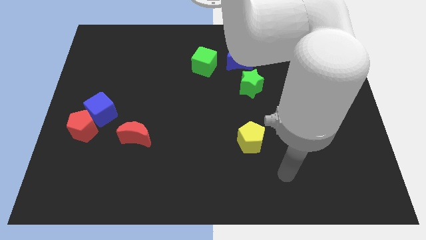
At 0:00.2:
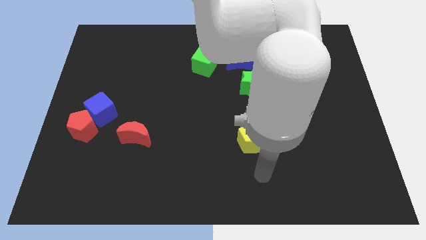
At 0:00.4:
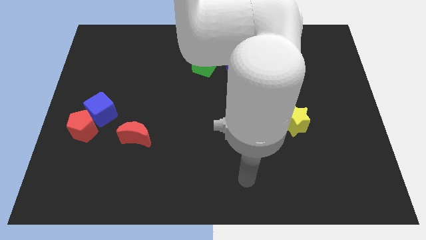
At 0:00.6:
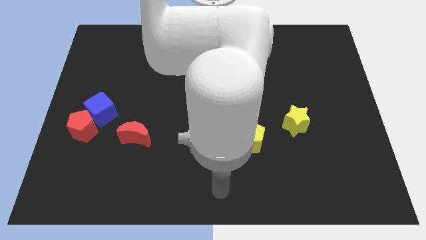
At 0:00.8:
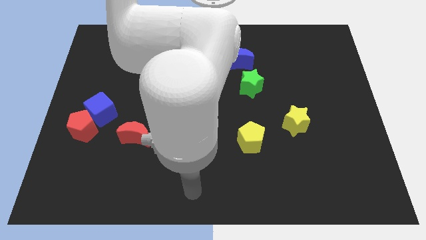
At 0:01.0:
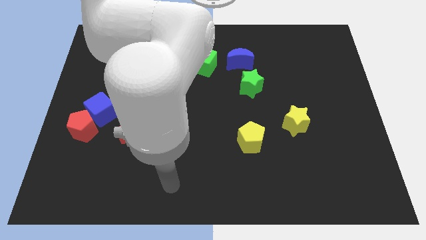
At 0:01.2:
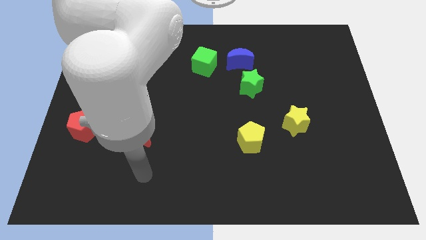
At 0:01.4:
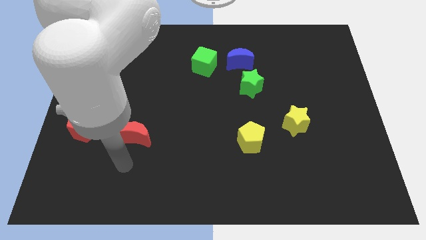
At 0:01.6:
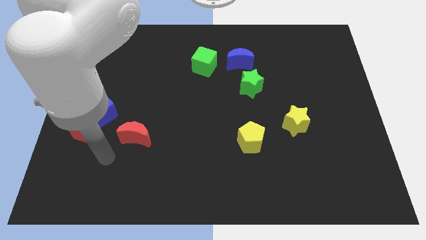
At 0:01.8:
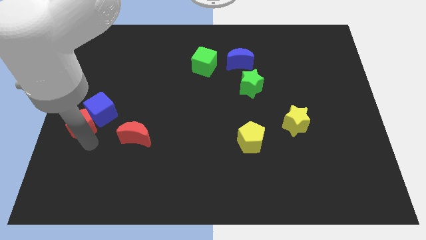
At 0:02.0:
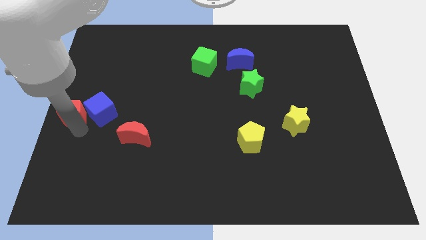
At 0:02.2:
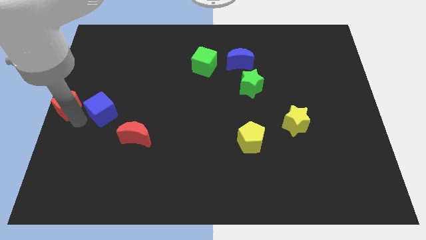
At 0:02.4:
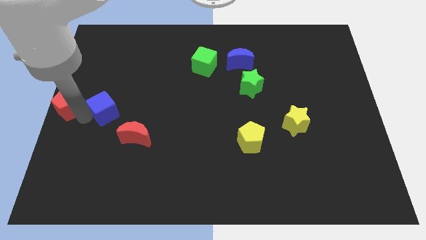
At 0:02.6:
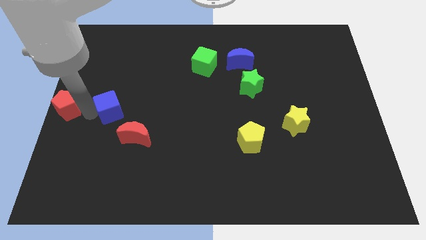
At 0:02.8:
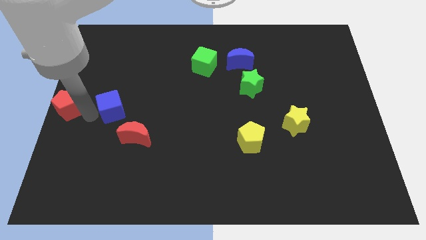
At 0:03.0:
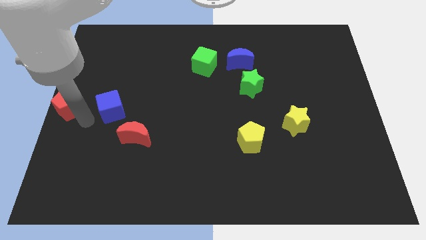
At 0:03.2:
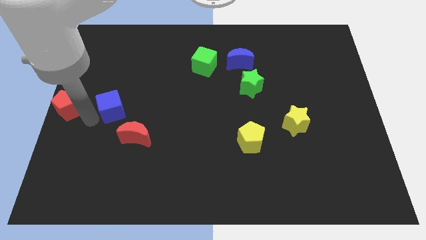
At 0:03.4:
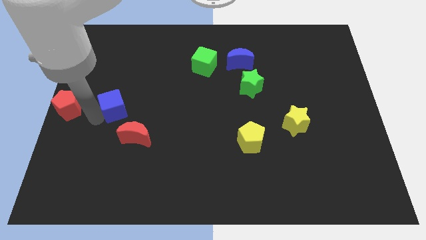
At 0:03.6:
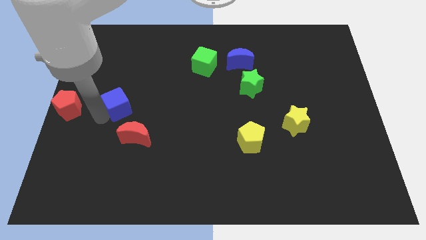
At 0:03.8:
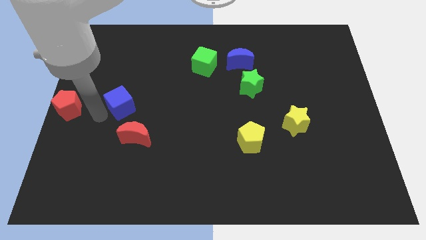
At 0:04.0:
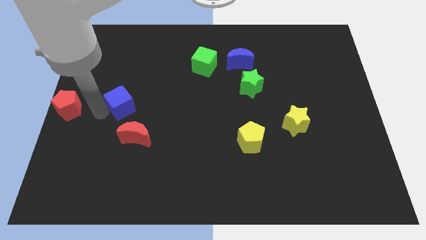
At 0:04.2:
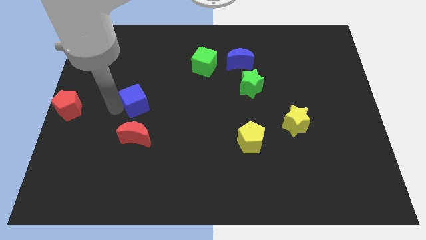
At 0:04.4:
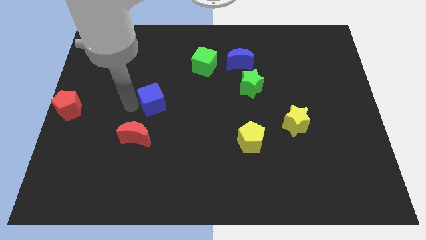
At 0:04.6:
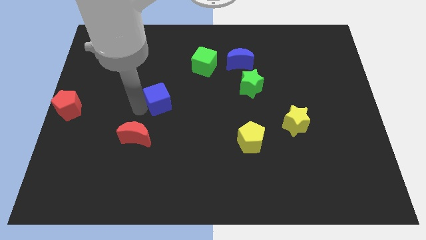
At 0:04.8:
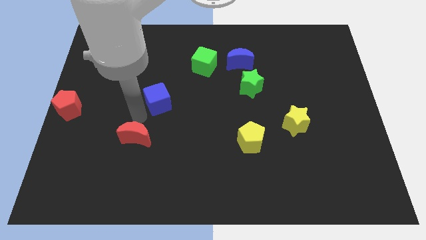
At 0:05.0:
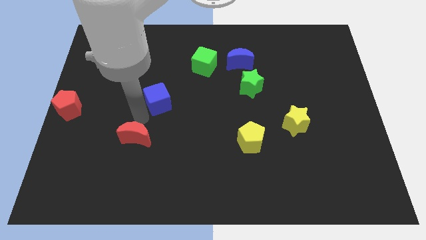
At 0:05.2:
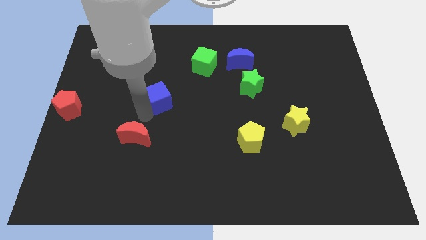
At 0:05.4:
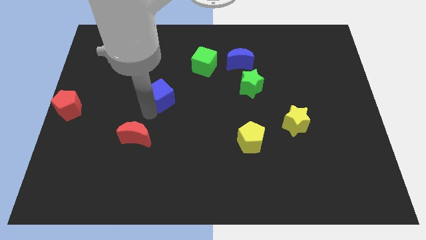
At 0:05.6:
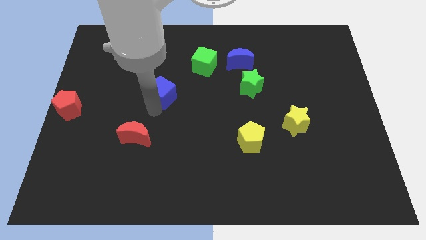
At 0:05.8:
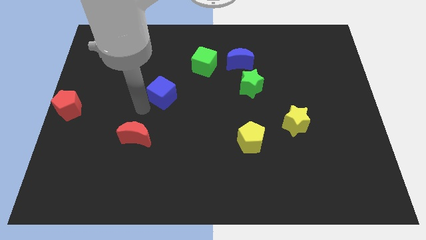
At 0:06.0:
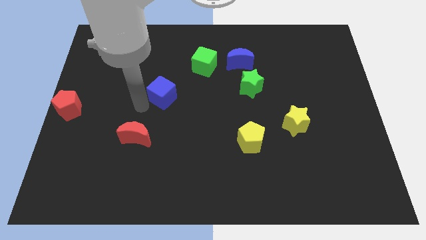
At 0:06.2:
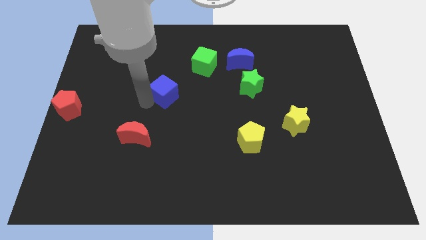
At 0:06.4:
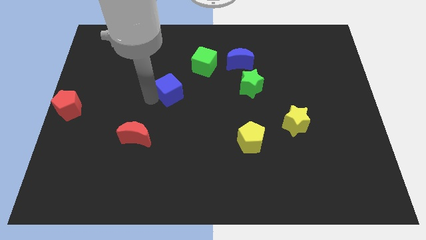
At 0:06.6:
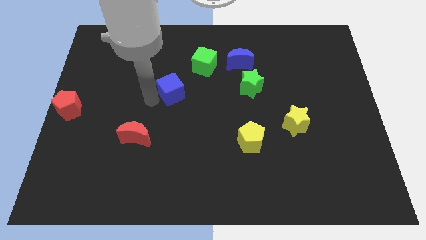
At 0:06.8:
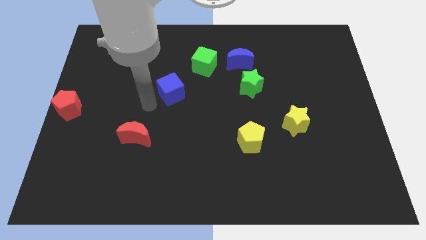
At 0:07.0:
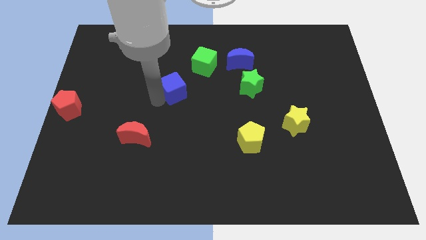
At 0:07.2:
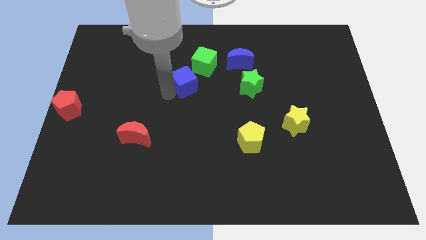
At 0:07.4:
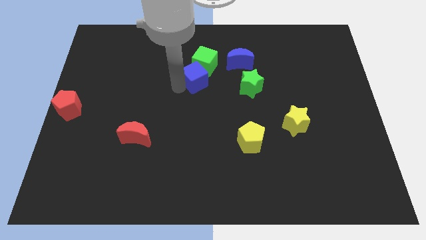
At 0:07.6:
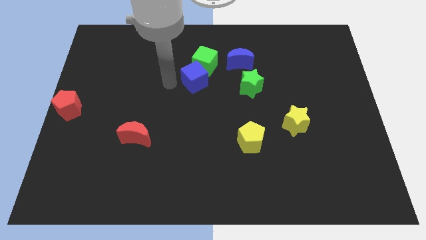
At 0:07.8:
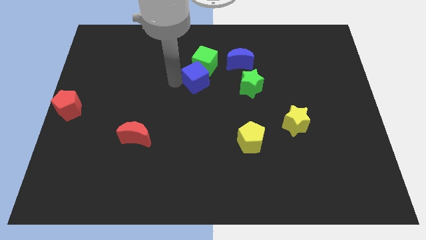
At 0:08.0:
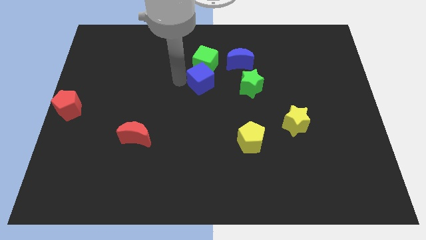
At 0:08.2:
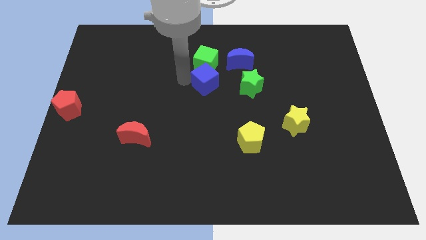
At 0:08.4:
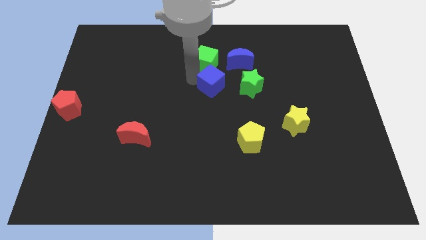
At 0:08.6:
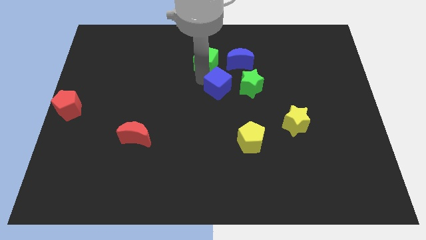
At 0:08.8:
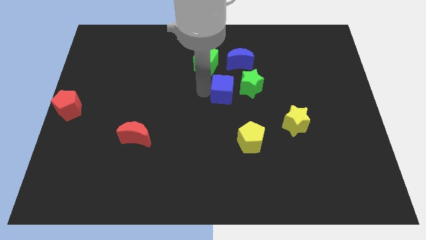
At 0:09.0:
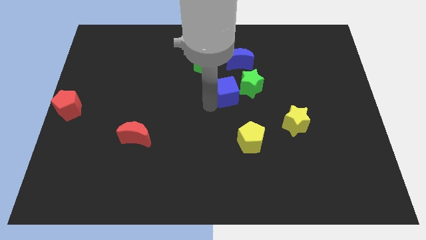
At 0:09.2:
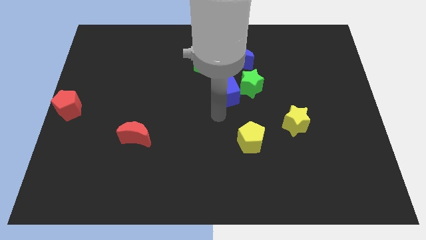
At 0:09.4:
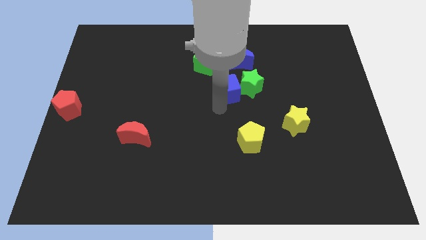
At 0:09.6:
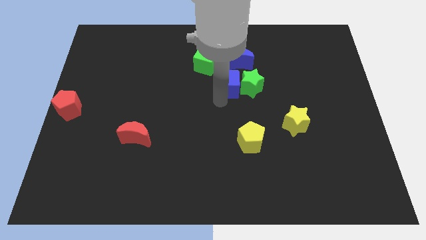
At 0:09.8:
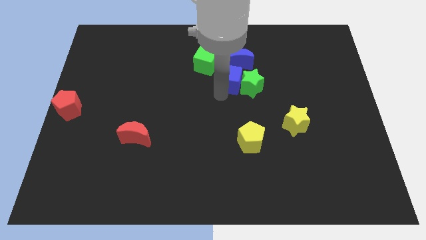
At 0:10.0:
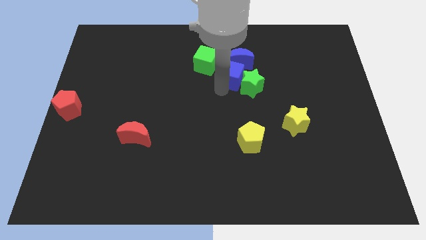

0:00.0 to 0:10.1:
push the blue cube next to the blue moon

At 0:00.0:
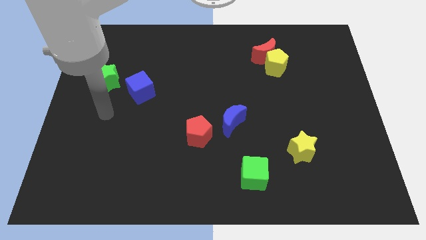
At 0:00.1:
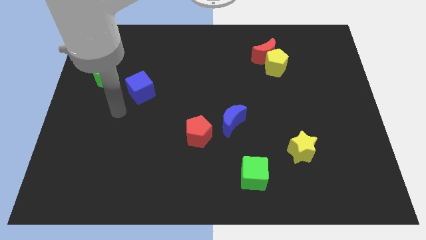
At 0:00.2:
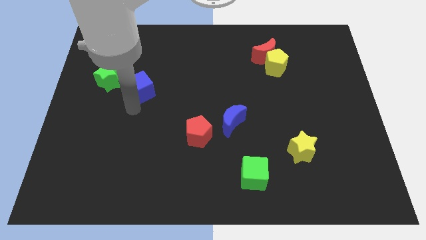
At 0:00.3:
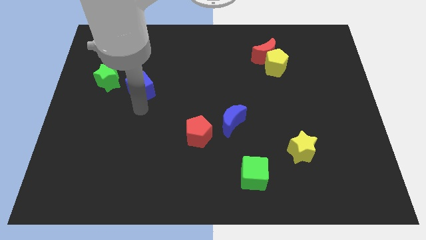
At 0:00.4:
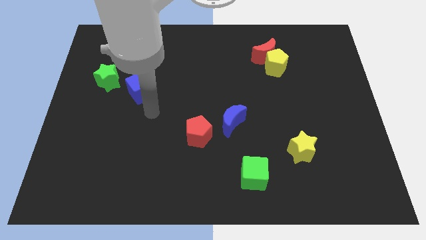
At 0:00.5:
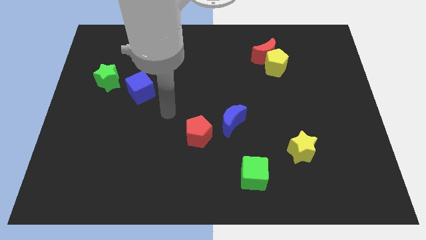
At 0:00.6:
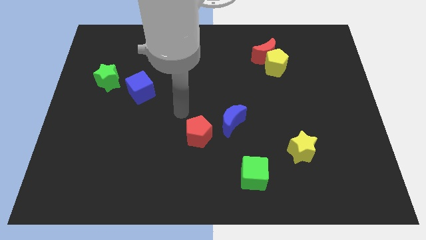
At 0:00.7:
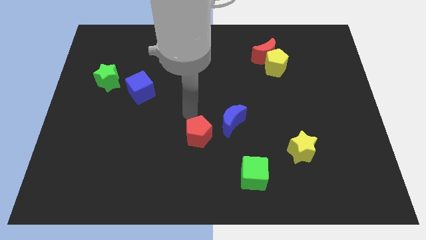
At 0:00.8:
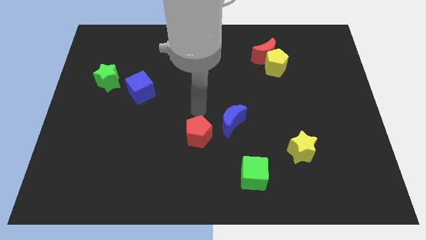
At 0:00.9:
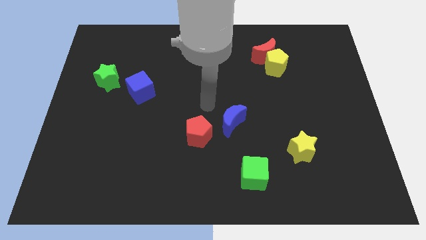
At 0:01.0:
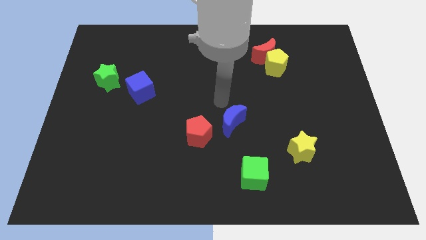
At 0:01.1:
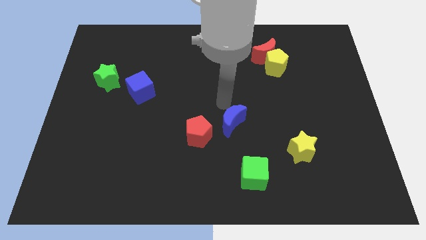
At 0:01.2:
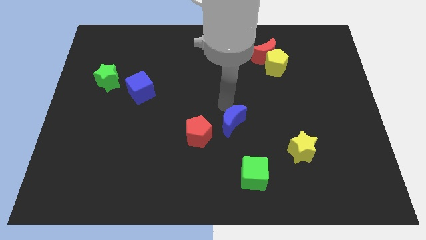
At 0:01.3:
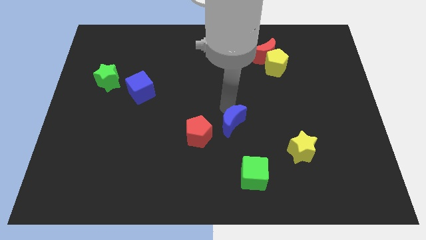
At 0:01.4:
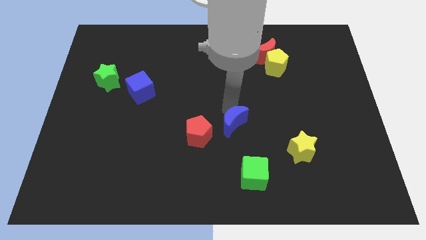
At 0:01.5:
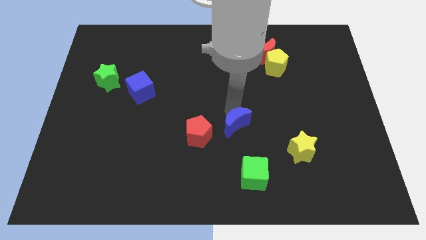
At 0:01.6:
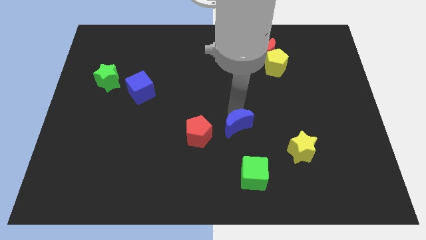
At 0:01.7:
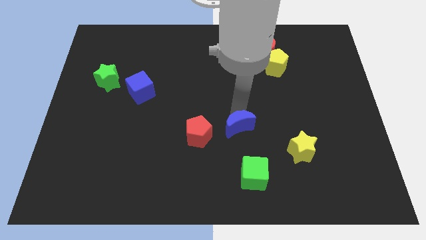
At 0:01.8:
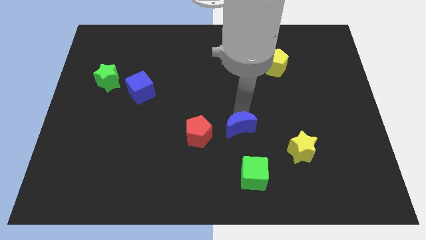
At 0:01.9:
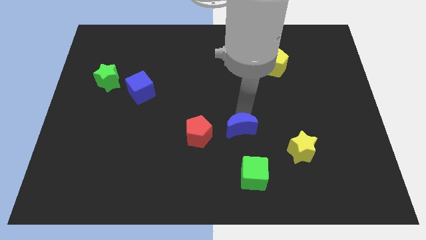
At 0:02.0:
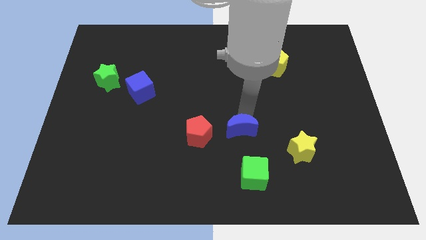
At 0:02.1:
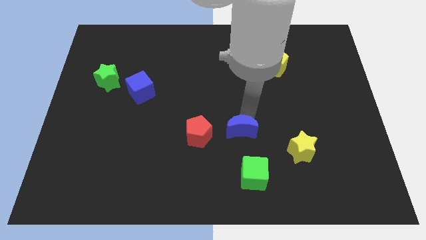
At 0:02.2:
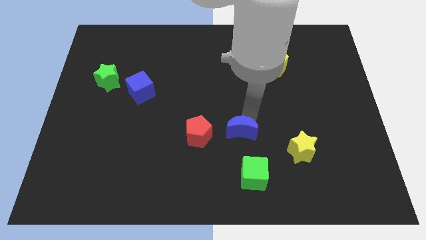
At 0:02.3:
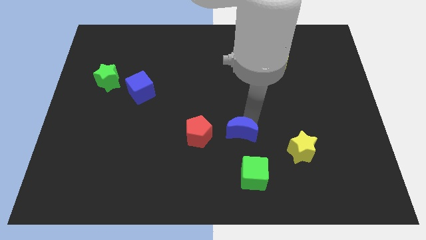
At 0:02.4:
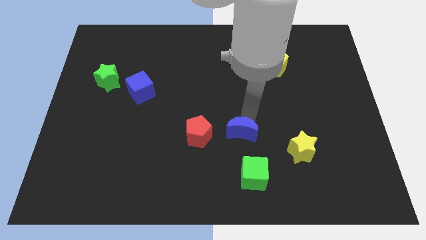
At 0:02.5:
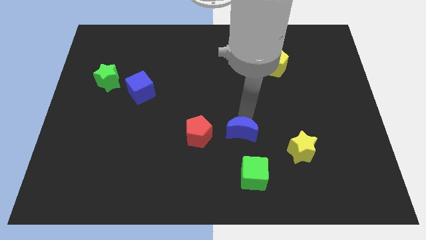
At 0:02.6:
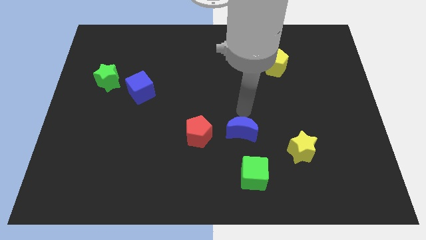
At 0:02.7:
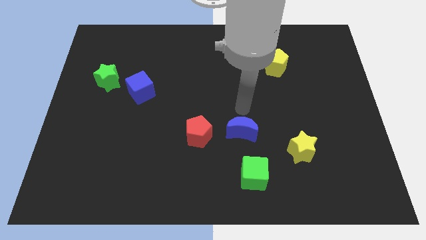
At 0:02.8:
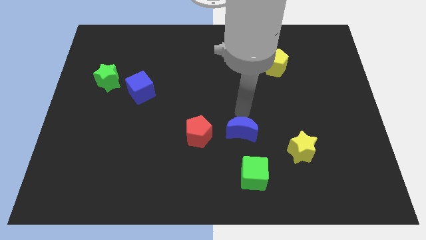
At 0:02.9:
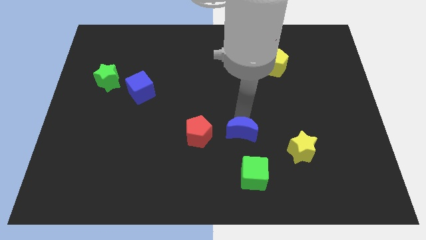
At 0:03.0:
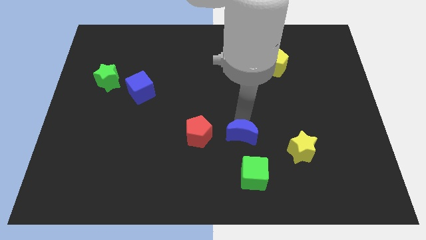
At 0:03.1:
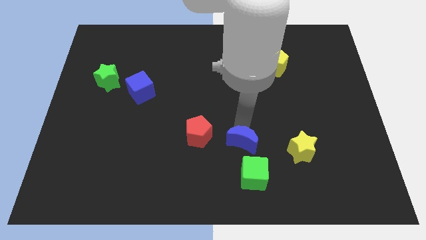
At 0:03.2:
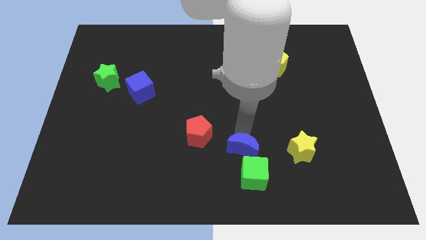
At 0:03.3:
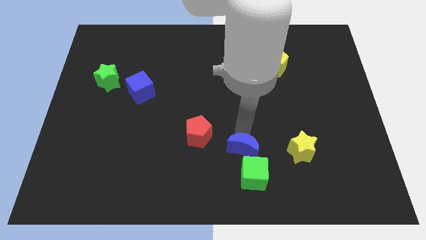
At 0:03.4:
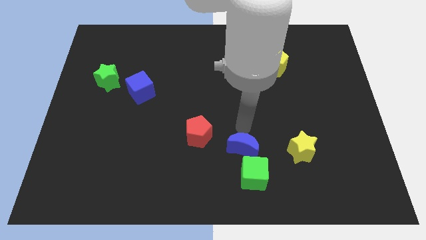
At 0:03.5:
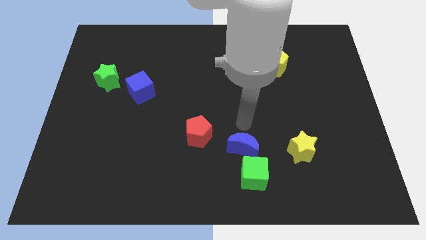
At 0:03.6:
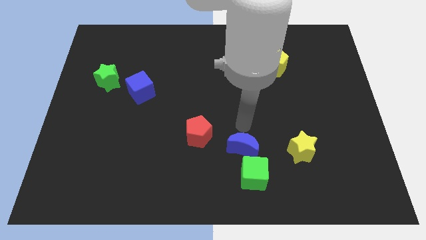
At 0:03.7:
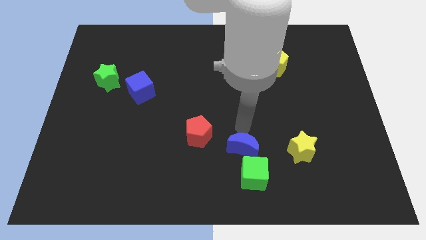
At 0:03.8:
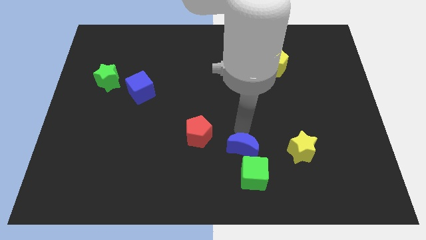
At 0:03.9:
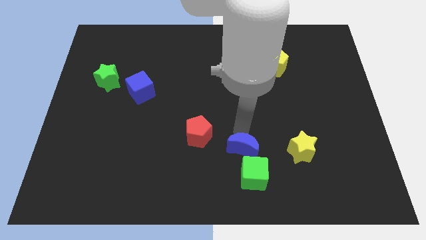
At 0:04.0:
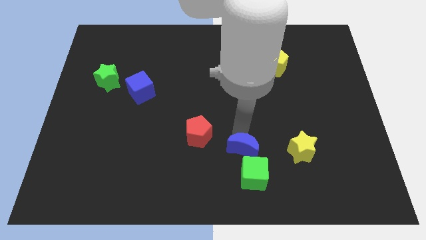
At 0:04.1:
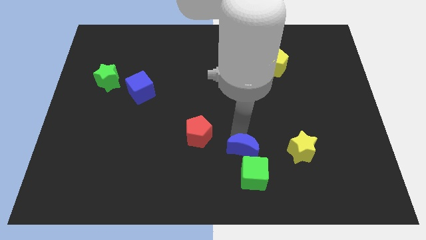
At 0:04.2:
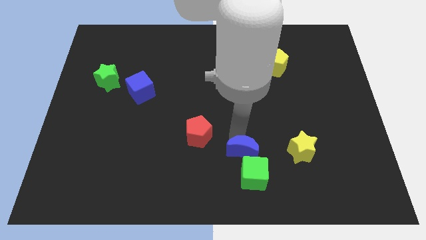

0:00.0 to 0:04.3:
move the blue moon close to the green cube
